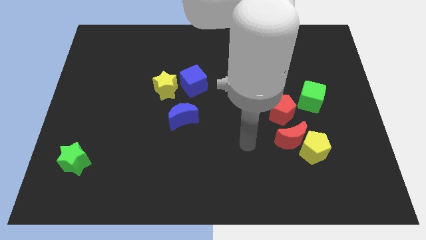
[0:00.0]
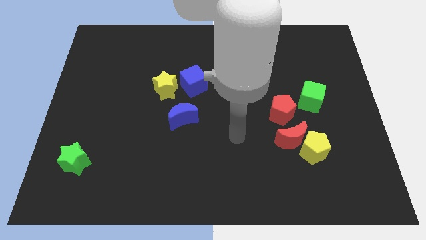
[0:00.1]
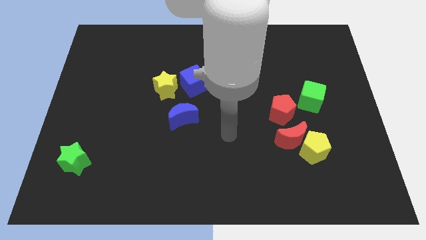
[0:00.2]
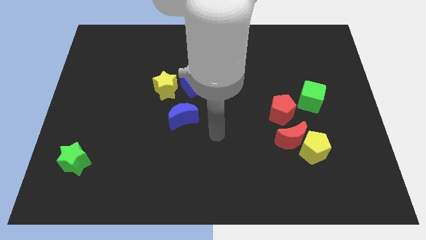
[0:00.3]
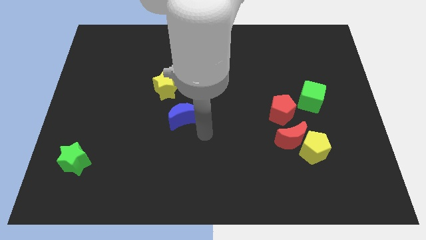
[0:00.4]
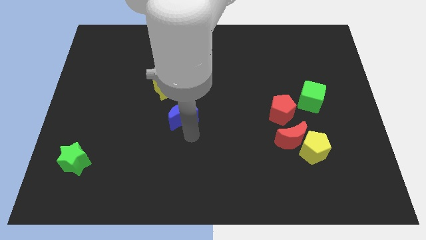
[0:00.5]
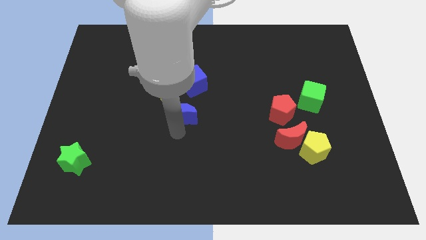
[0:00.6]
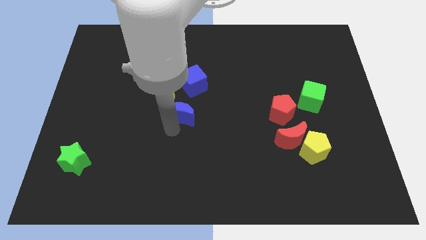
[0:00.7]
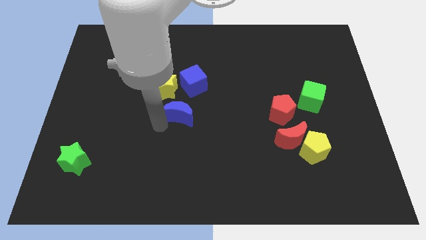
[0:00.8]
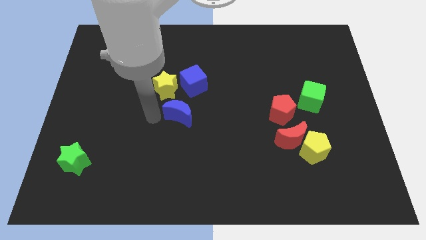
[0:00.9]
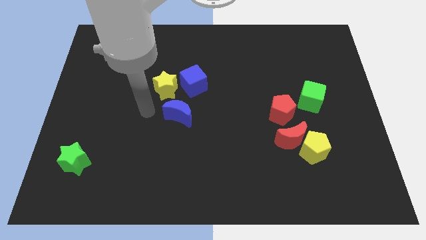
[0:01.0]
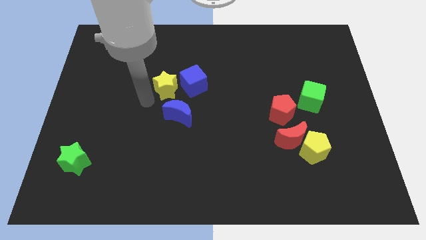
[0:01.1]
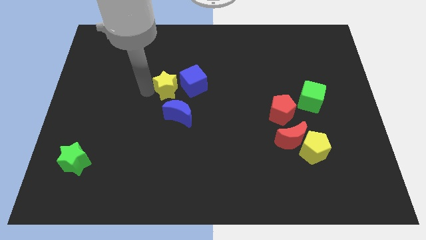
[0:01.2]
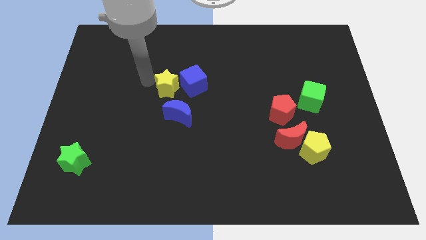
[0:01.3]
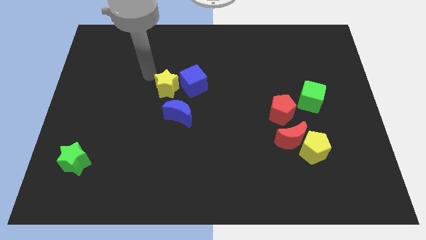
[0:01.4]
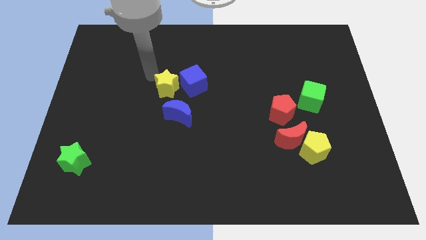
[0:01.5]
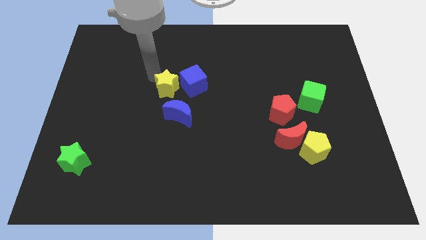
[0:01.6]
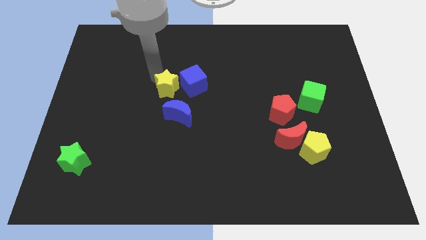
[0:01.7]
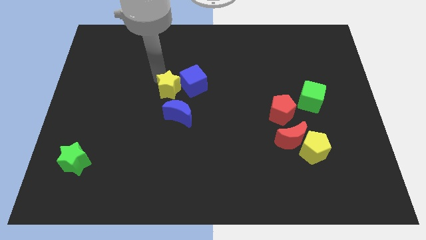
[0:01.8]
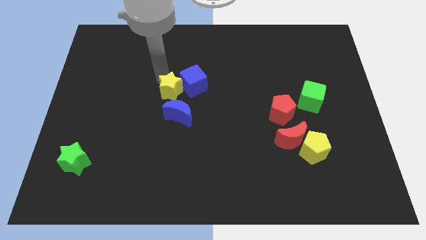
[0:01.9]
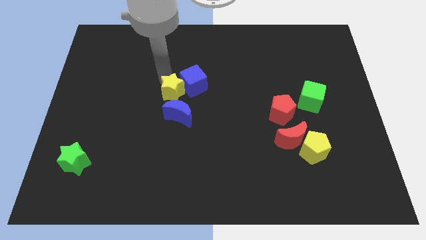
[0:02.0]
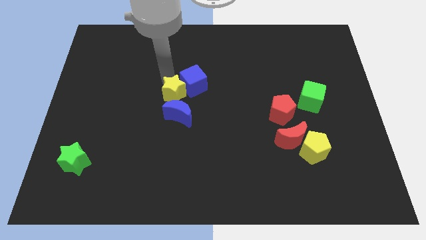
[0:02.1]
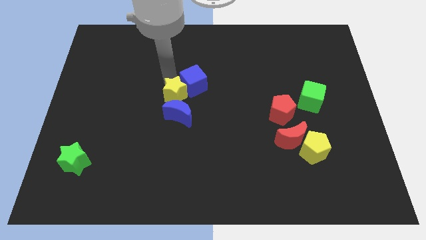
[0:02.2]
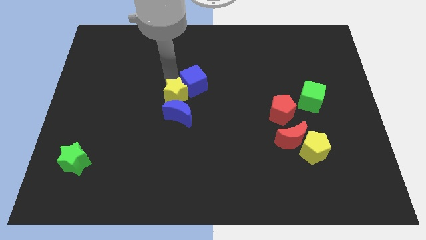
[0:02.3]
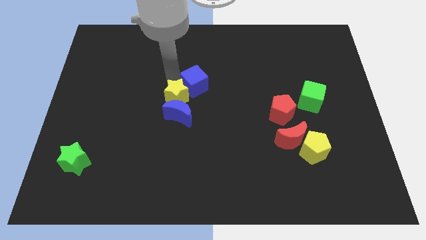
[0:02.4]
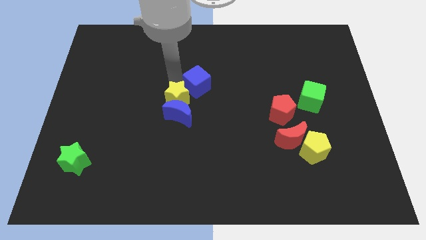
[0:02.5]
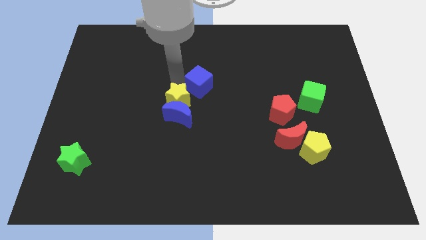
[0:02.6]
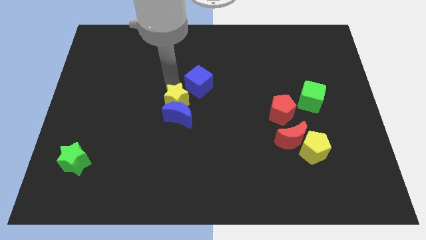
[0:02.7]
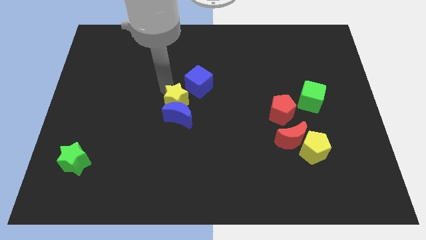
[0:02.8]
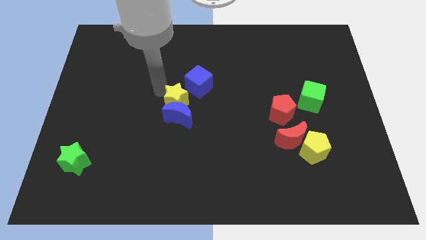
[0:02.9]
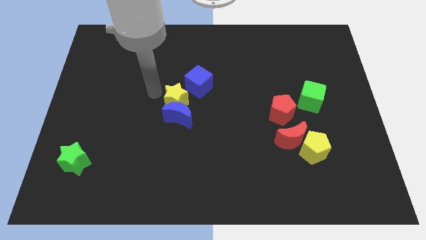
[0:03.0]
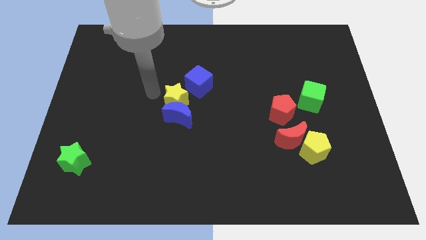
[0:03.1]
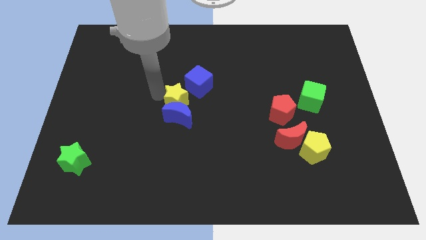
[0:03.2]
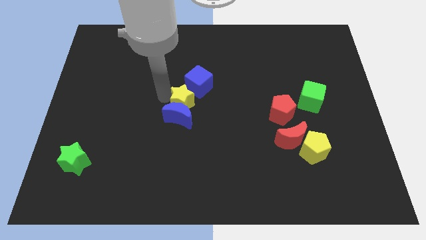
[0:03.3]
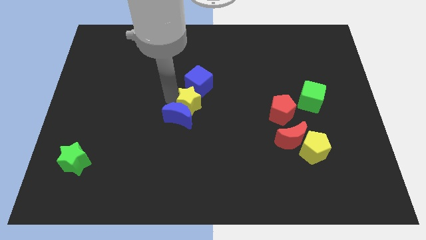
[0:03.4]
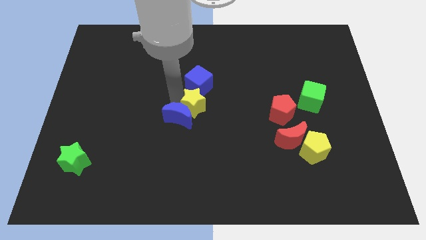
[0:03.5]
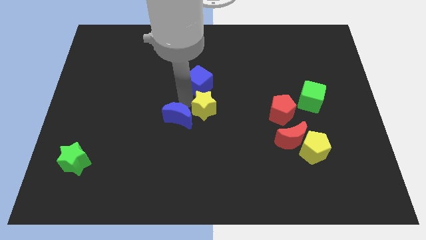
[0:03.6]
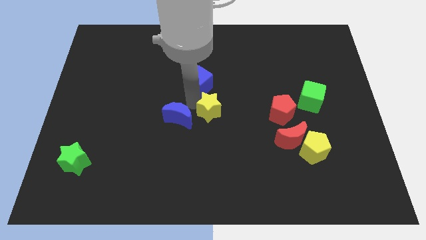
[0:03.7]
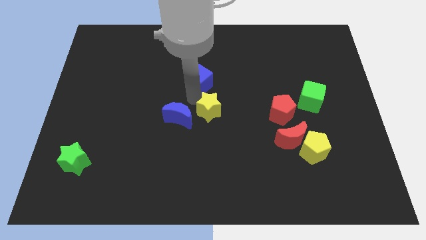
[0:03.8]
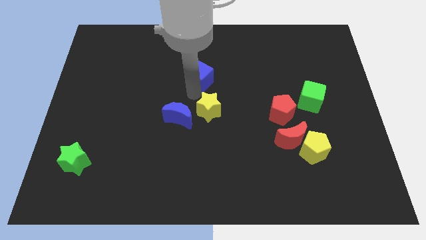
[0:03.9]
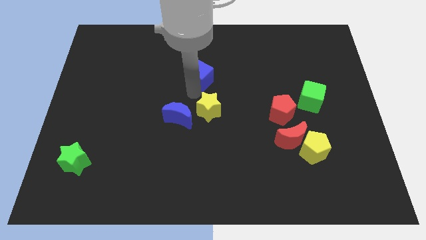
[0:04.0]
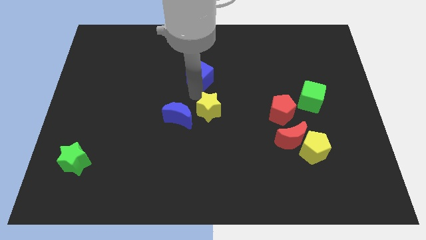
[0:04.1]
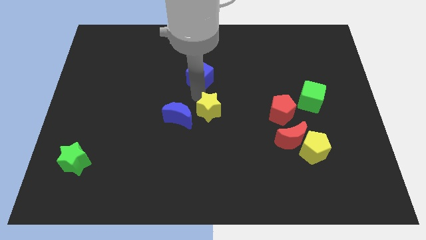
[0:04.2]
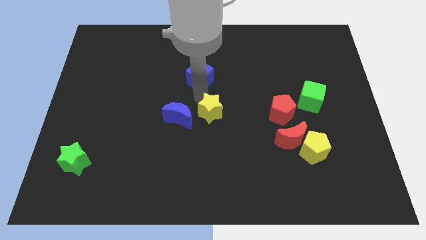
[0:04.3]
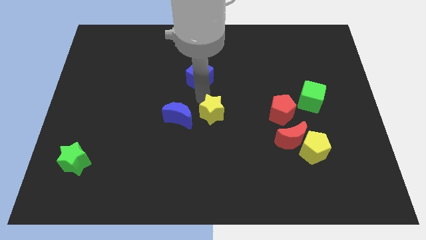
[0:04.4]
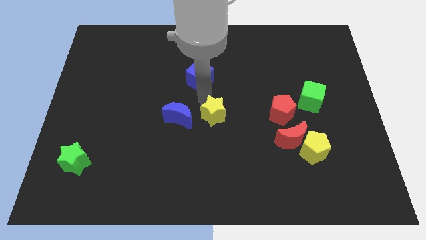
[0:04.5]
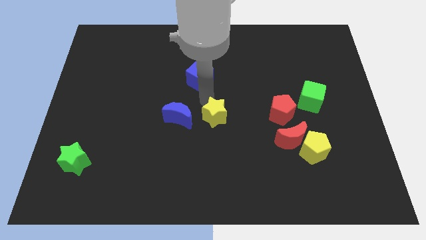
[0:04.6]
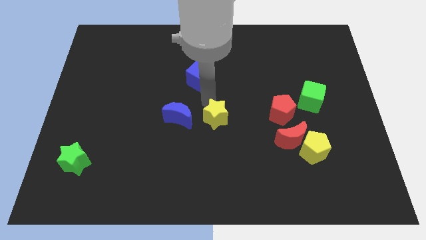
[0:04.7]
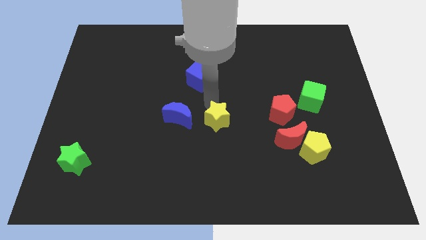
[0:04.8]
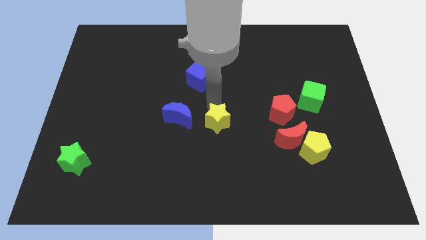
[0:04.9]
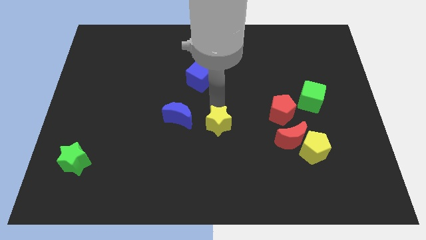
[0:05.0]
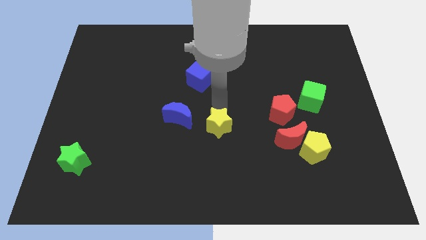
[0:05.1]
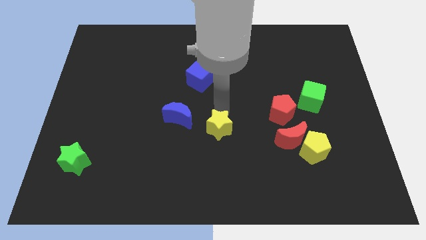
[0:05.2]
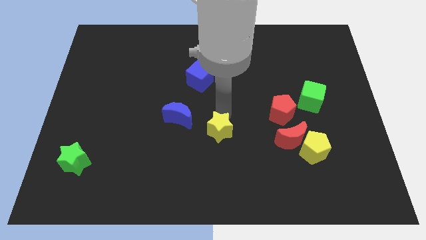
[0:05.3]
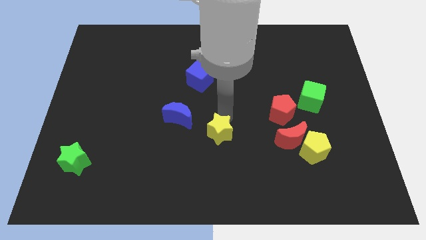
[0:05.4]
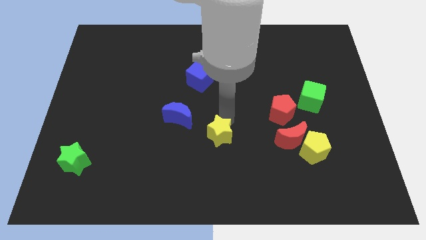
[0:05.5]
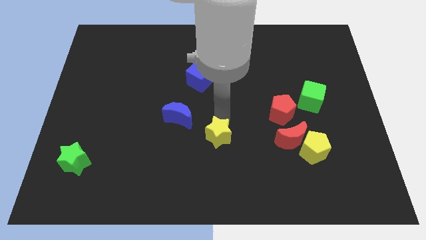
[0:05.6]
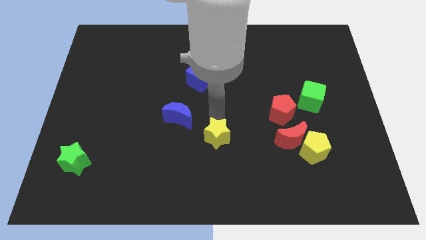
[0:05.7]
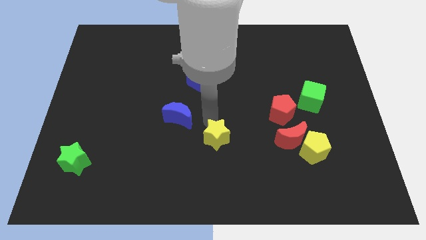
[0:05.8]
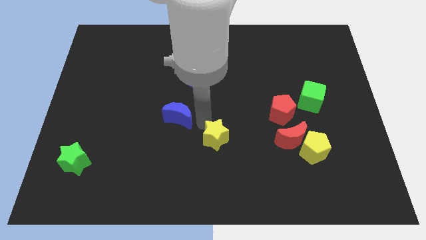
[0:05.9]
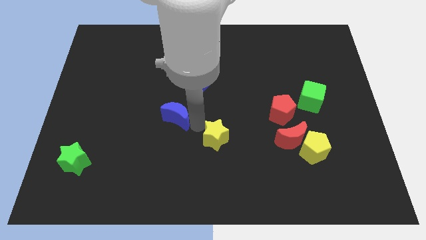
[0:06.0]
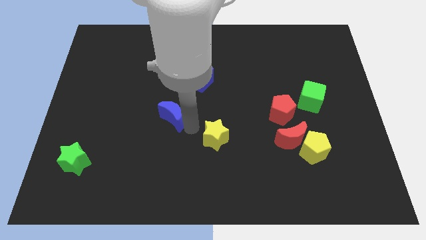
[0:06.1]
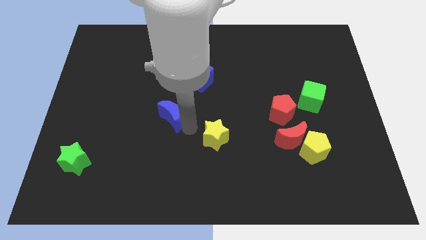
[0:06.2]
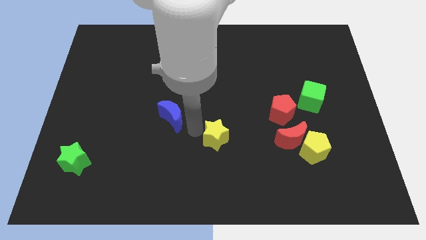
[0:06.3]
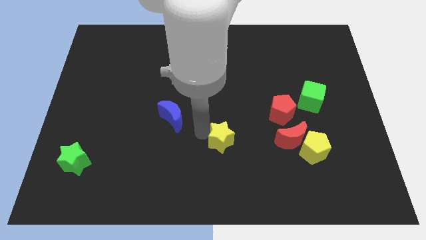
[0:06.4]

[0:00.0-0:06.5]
slide the yellow star diagonally downwards and to the right

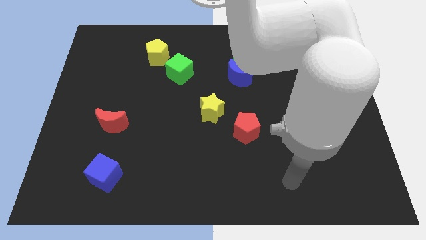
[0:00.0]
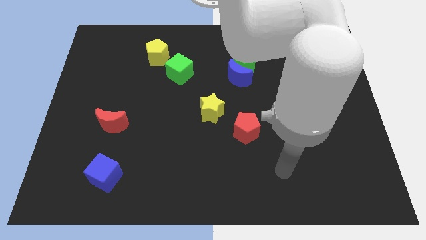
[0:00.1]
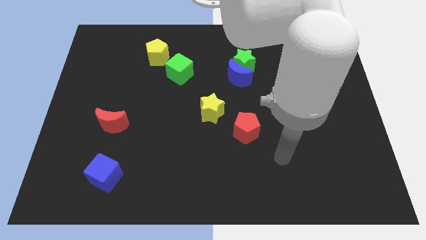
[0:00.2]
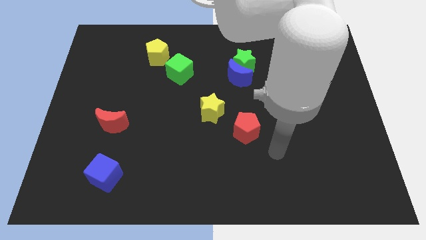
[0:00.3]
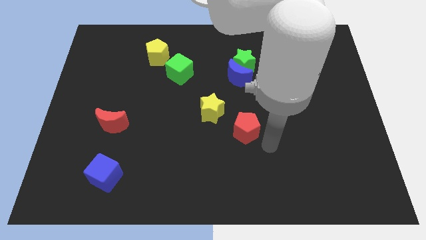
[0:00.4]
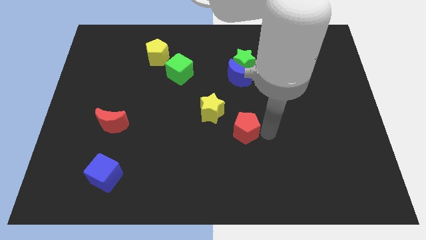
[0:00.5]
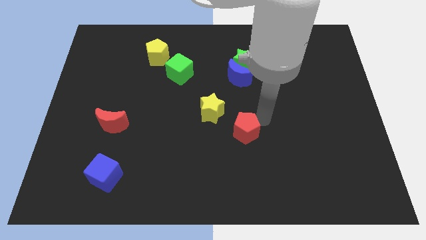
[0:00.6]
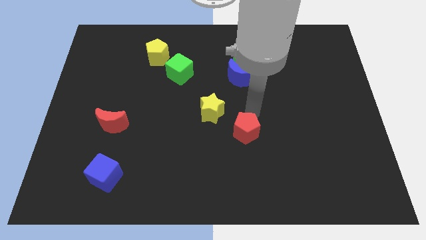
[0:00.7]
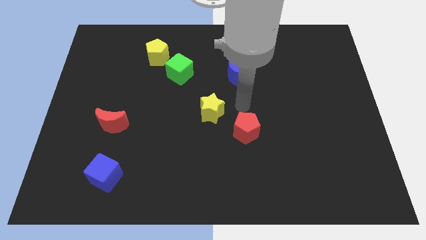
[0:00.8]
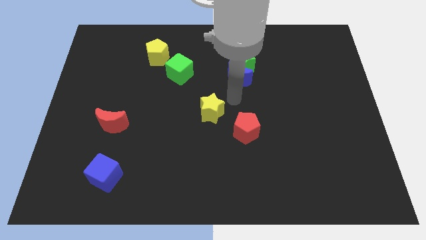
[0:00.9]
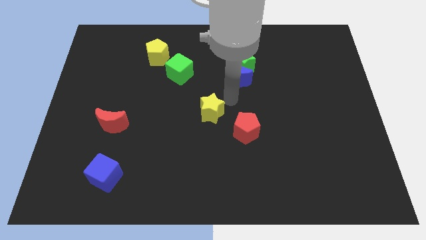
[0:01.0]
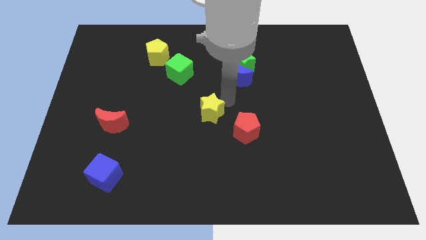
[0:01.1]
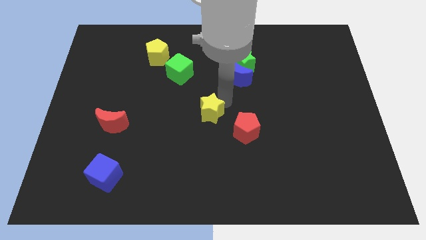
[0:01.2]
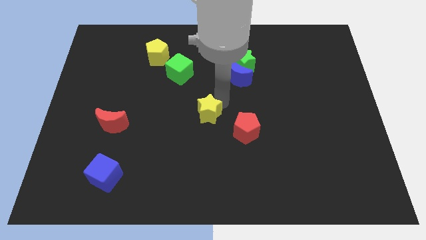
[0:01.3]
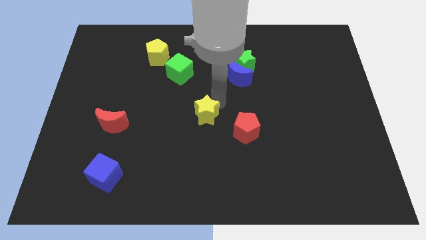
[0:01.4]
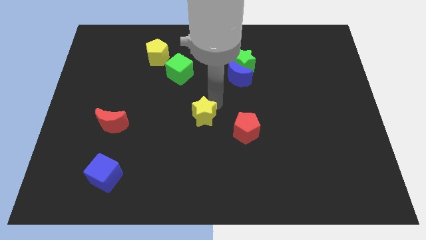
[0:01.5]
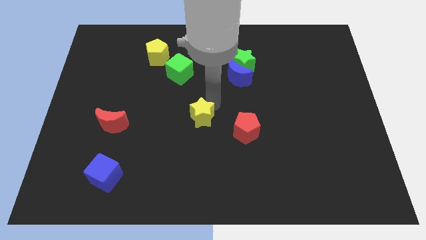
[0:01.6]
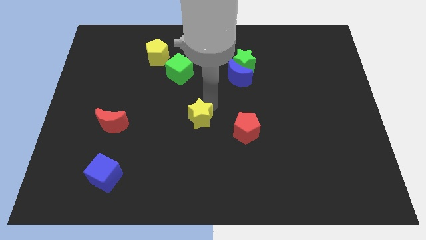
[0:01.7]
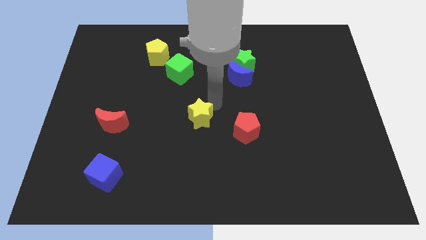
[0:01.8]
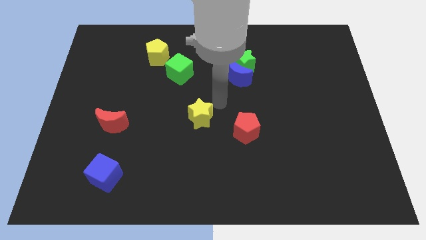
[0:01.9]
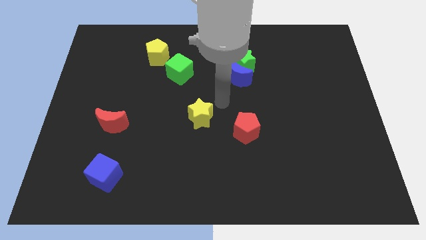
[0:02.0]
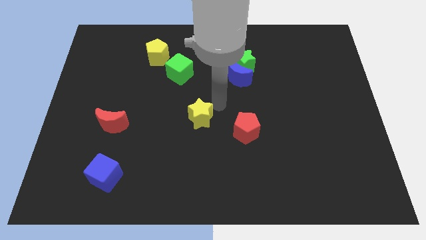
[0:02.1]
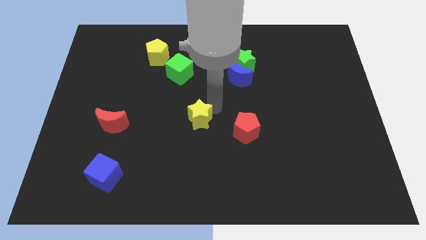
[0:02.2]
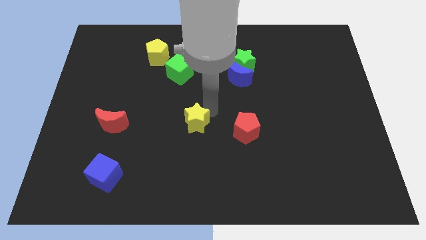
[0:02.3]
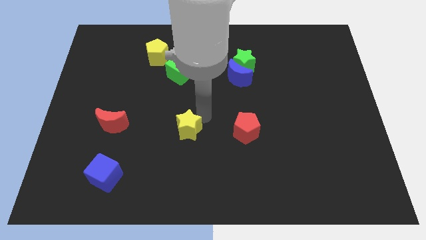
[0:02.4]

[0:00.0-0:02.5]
slightly push the yellow star downwards and then left
